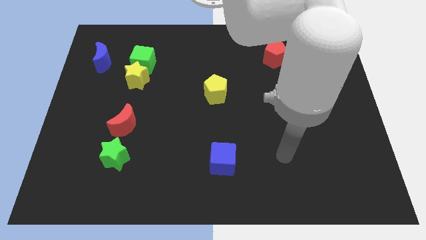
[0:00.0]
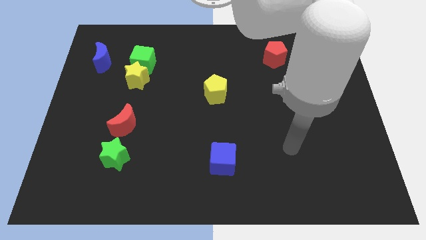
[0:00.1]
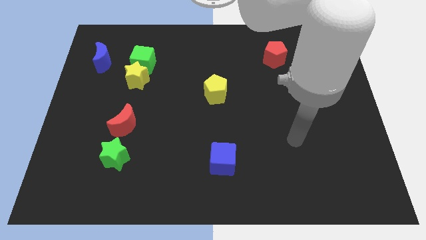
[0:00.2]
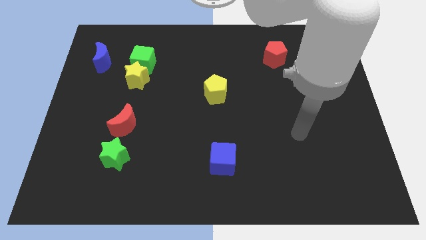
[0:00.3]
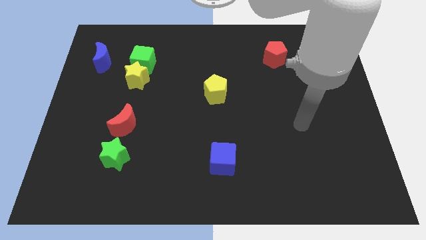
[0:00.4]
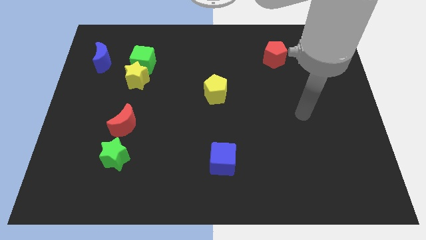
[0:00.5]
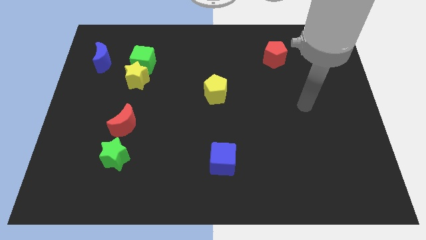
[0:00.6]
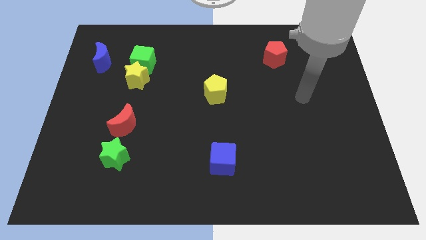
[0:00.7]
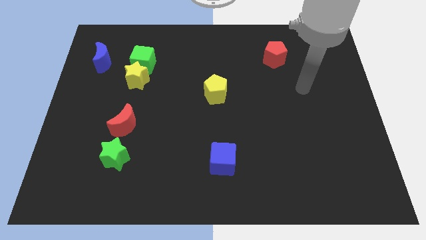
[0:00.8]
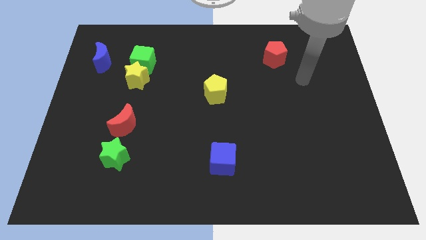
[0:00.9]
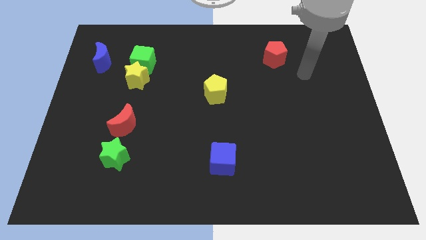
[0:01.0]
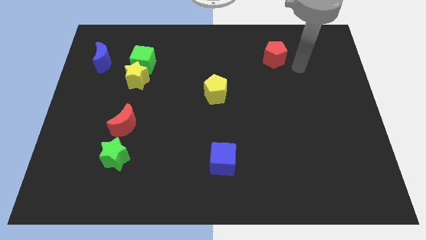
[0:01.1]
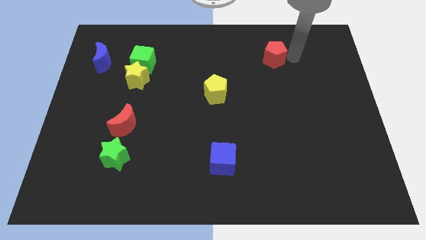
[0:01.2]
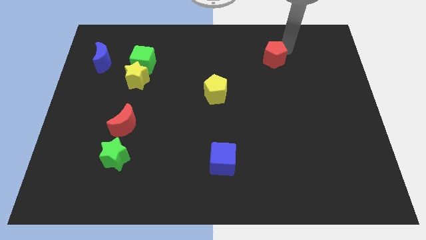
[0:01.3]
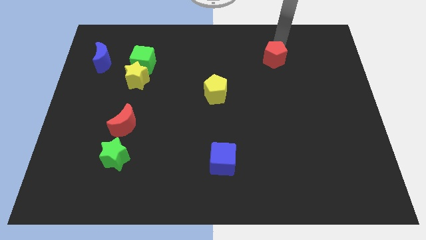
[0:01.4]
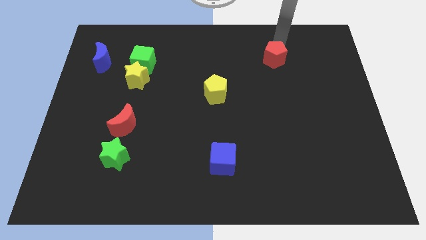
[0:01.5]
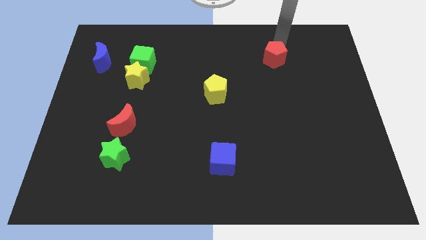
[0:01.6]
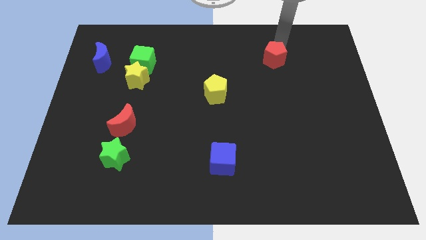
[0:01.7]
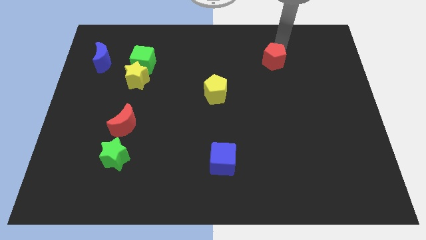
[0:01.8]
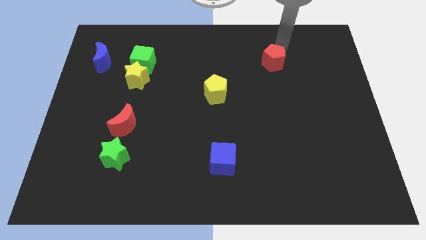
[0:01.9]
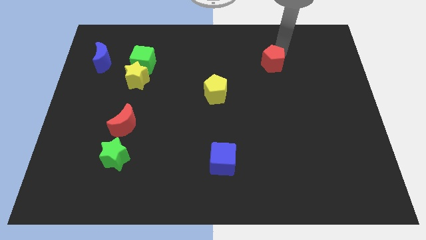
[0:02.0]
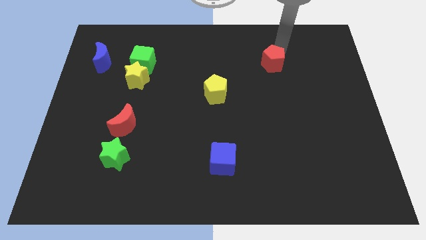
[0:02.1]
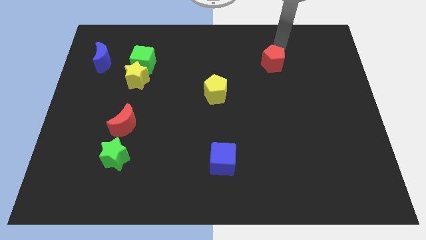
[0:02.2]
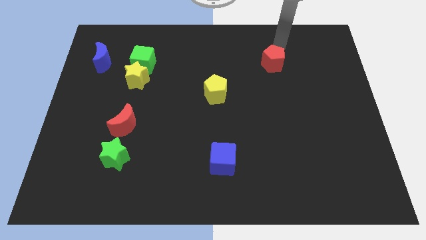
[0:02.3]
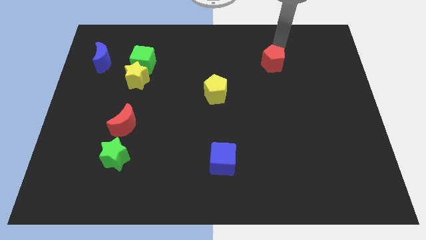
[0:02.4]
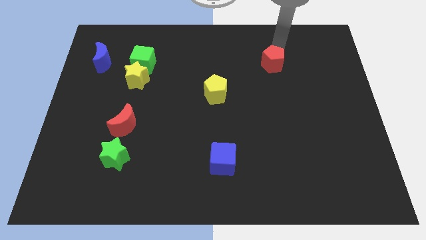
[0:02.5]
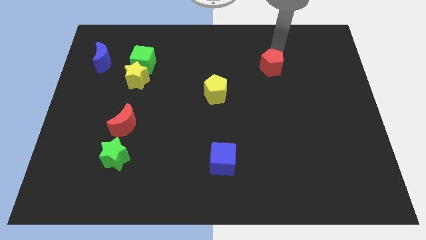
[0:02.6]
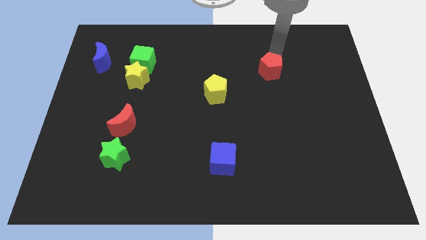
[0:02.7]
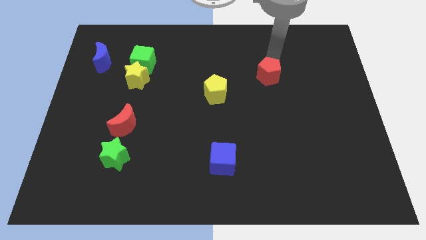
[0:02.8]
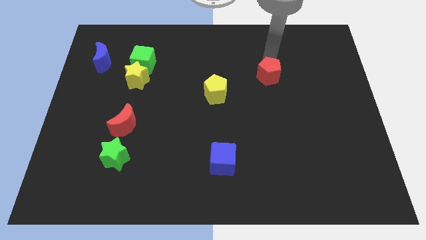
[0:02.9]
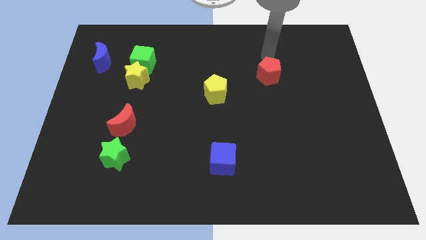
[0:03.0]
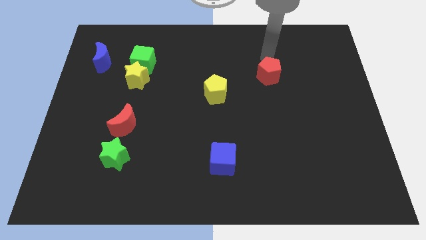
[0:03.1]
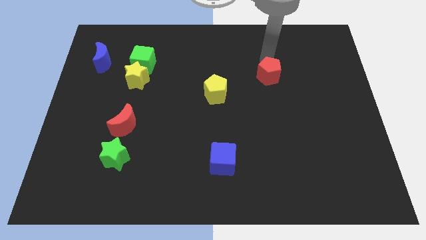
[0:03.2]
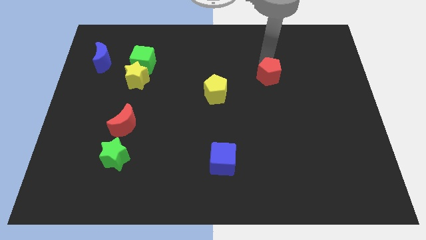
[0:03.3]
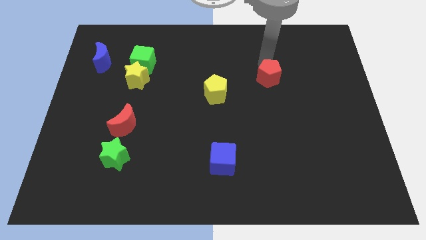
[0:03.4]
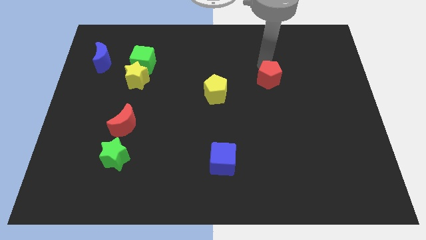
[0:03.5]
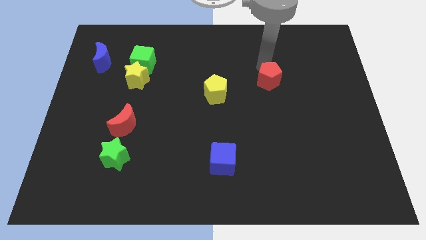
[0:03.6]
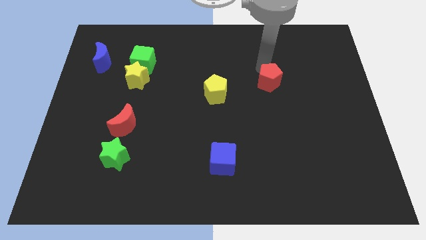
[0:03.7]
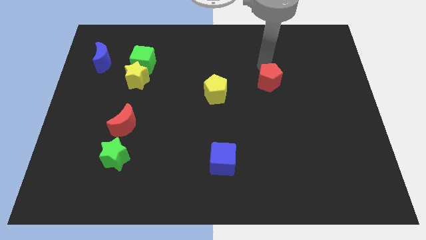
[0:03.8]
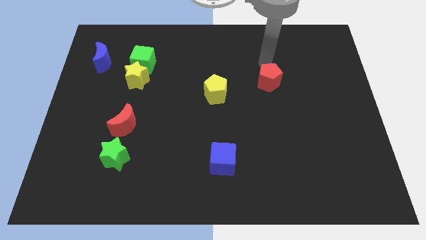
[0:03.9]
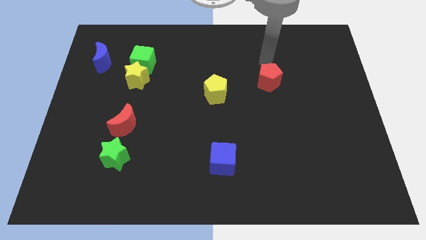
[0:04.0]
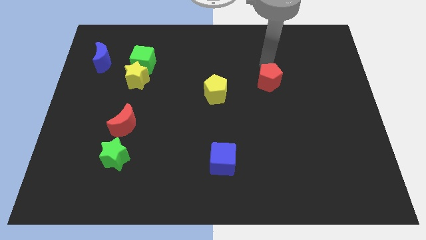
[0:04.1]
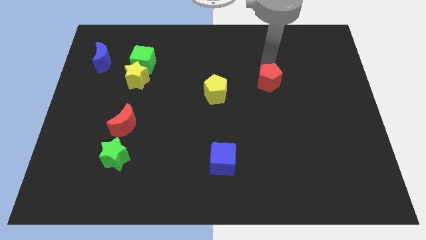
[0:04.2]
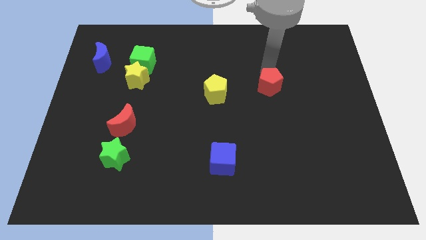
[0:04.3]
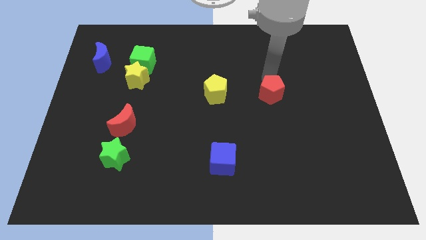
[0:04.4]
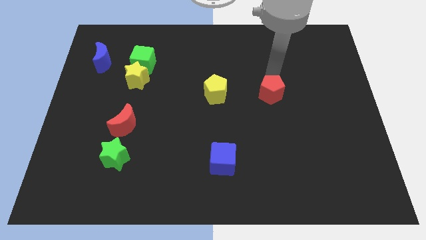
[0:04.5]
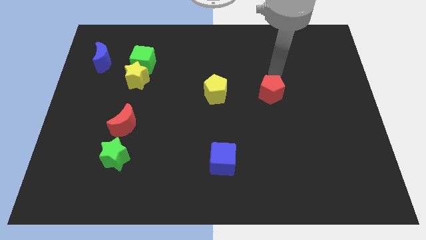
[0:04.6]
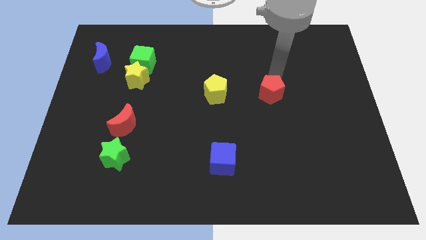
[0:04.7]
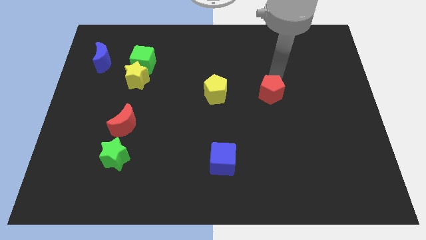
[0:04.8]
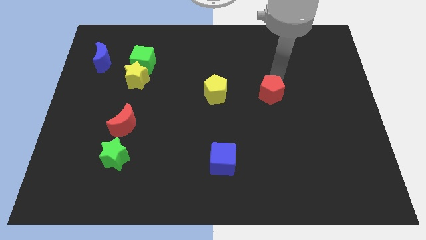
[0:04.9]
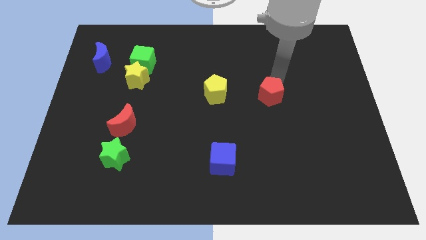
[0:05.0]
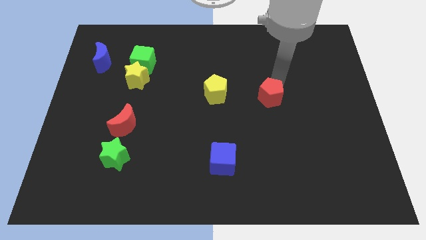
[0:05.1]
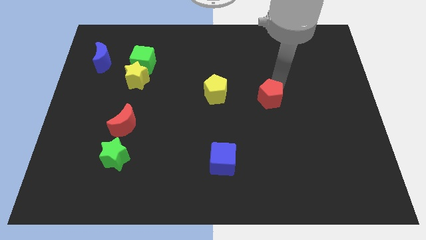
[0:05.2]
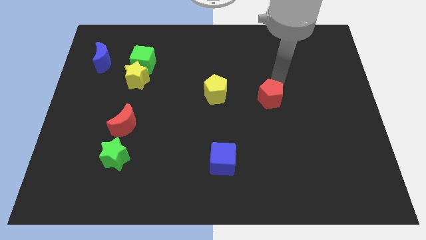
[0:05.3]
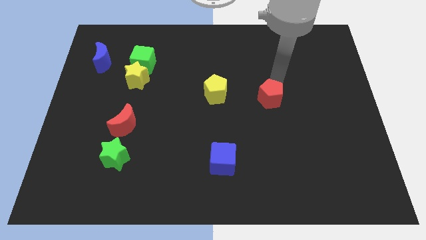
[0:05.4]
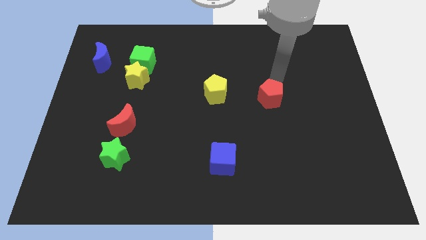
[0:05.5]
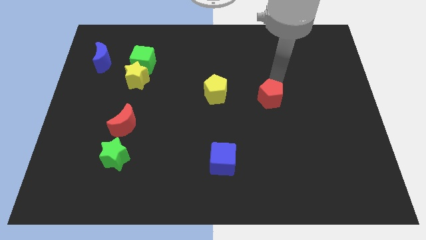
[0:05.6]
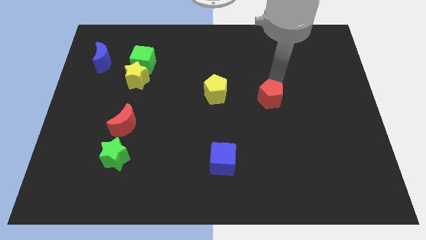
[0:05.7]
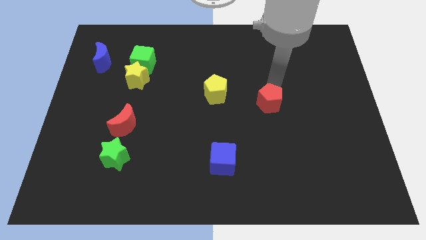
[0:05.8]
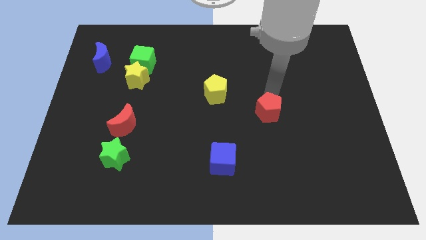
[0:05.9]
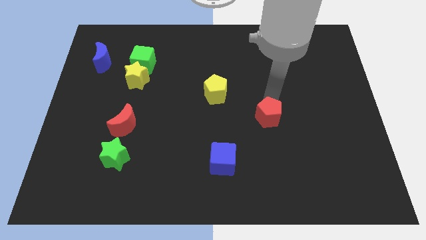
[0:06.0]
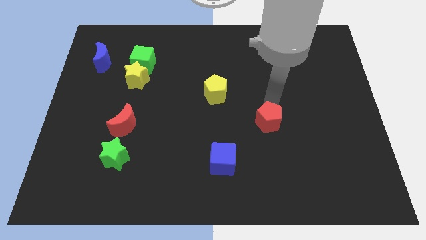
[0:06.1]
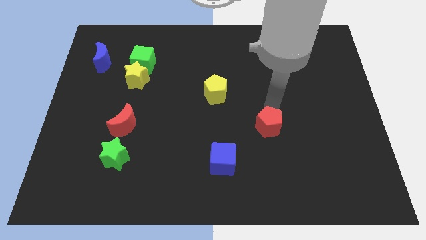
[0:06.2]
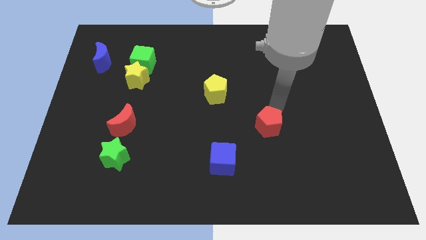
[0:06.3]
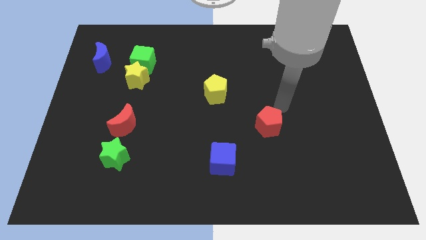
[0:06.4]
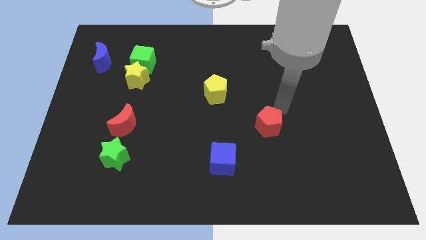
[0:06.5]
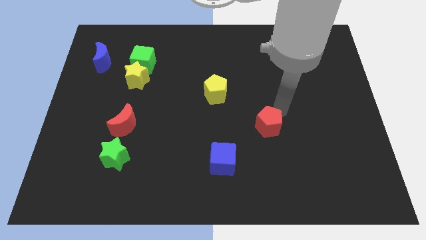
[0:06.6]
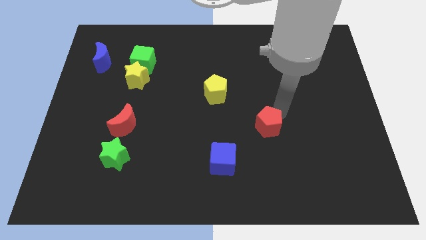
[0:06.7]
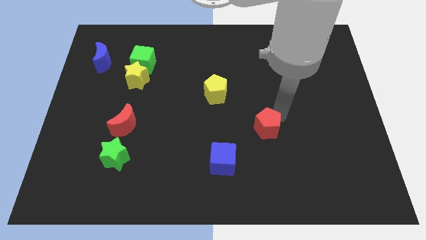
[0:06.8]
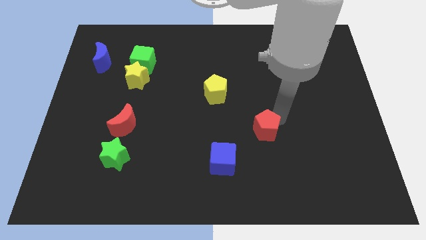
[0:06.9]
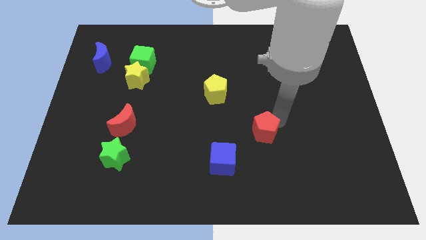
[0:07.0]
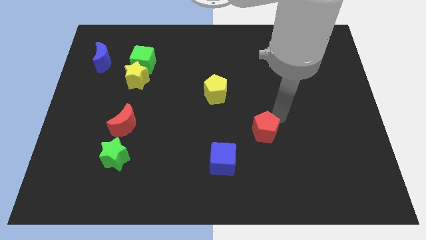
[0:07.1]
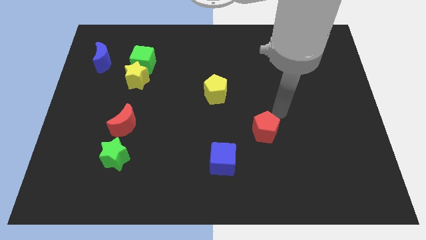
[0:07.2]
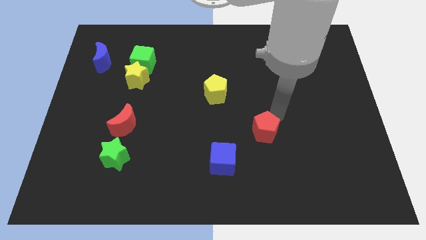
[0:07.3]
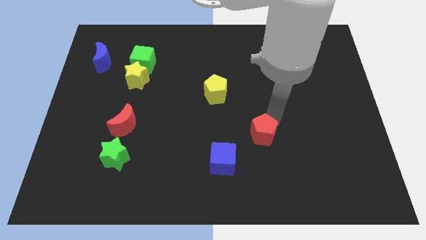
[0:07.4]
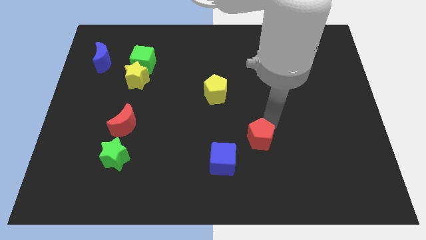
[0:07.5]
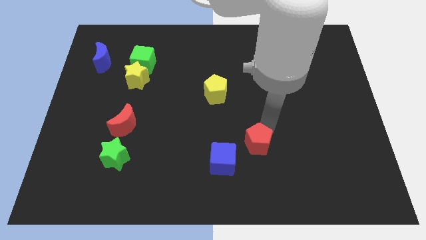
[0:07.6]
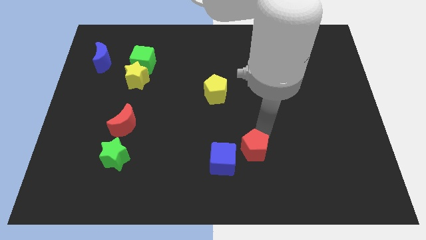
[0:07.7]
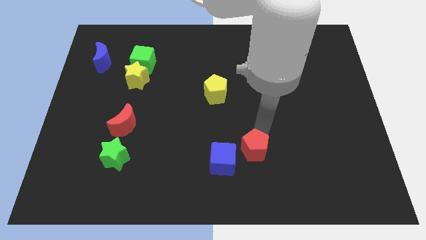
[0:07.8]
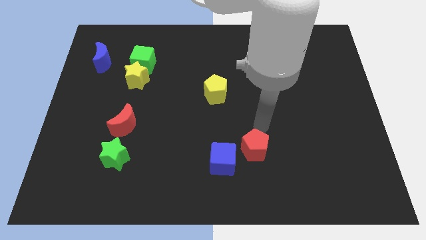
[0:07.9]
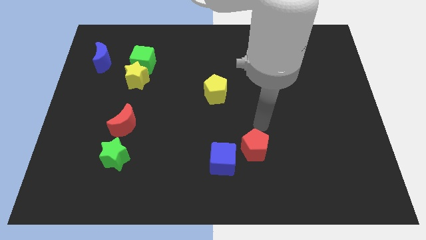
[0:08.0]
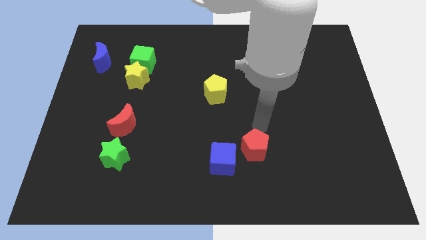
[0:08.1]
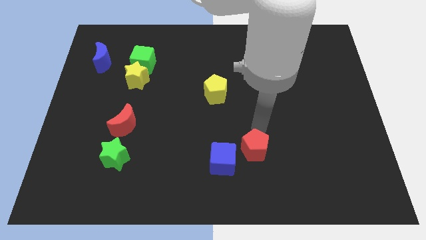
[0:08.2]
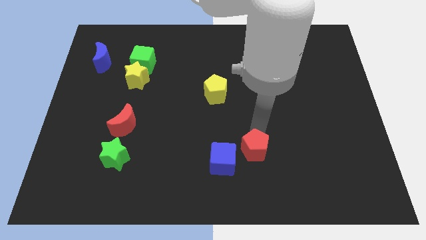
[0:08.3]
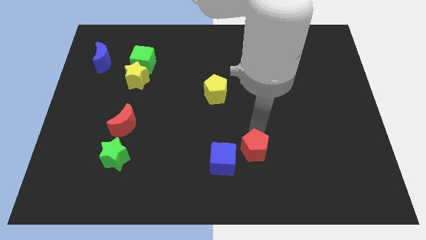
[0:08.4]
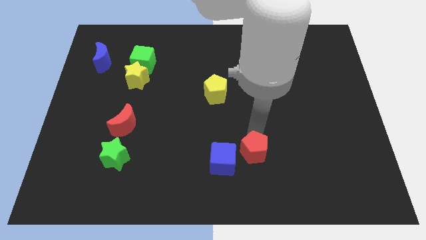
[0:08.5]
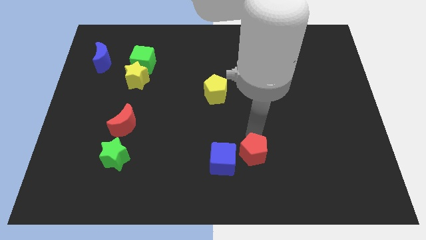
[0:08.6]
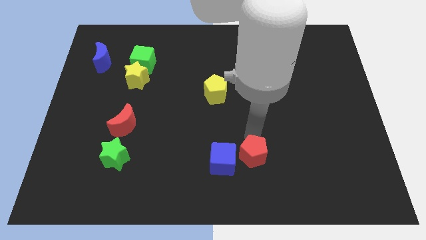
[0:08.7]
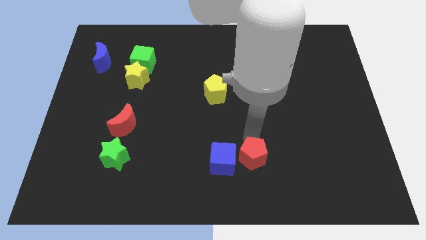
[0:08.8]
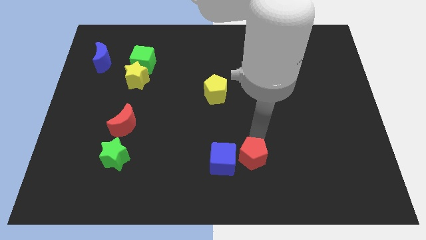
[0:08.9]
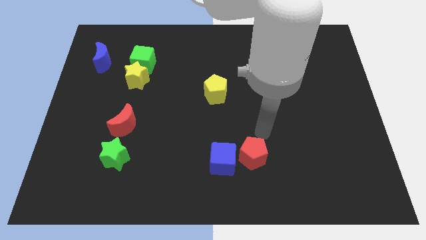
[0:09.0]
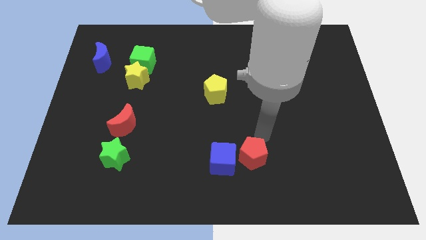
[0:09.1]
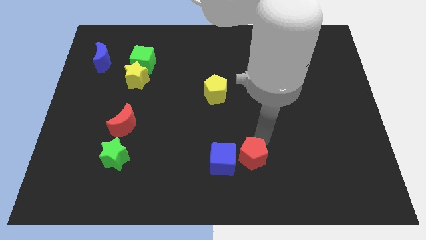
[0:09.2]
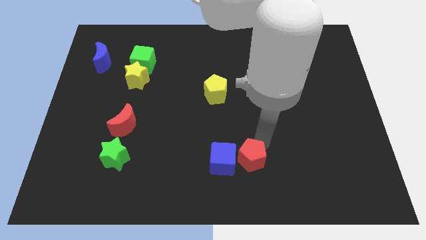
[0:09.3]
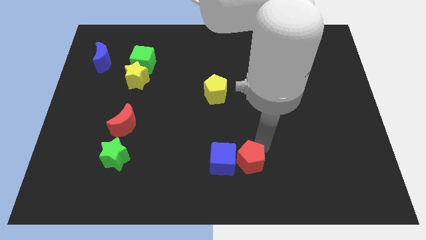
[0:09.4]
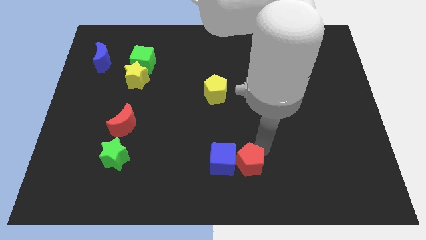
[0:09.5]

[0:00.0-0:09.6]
slide the red pentagon to the bottom
